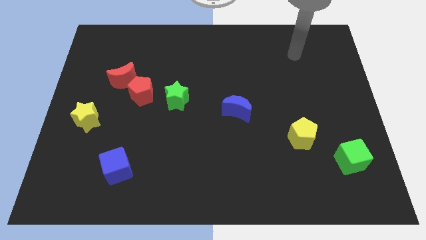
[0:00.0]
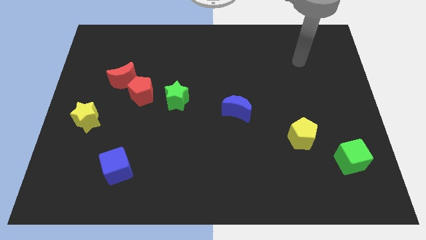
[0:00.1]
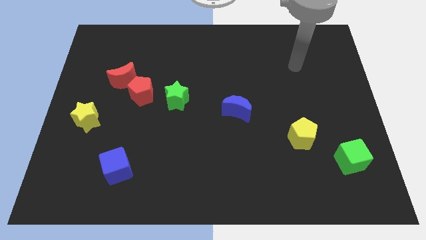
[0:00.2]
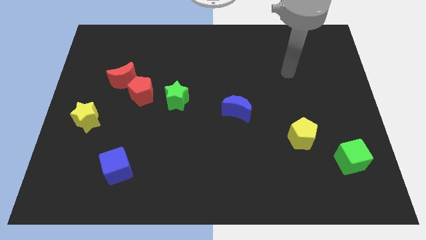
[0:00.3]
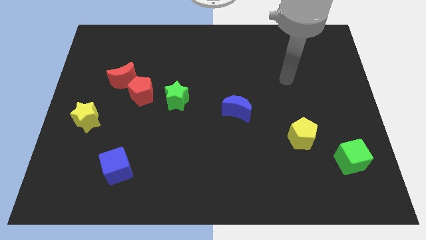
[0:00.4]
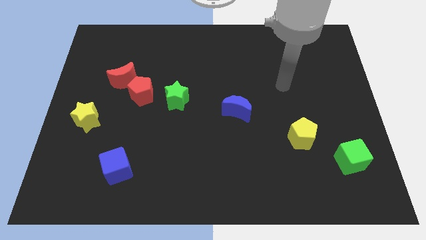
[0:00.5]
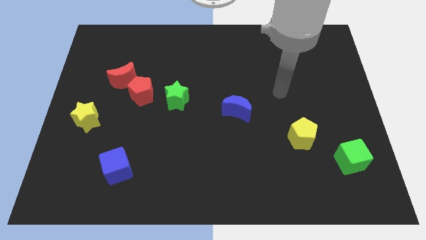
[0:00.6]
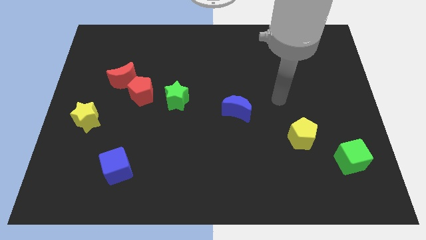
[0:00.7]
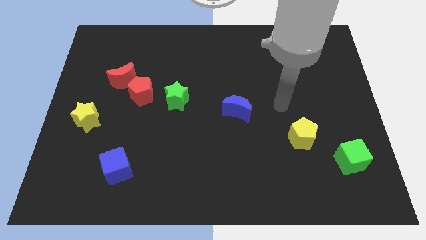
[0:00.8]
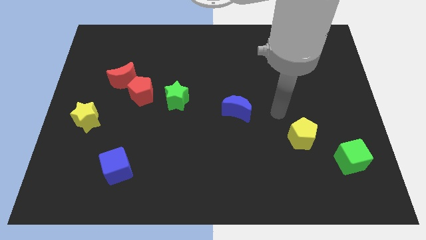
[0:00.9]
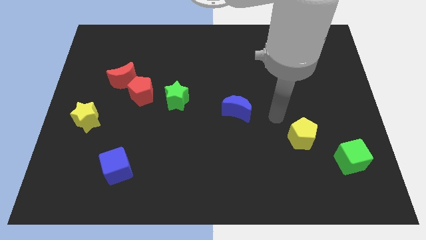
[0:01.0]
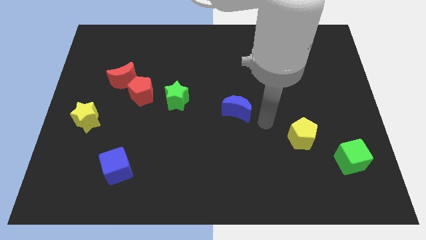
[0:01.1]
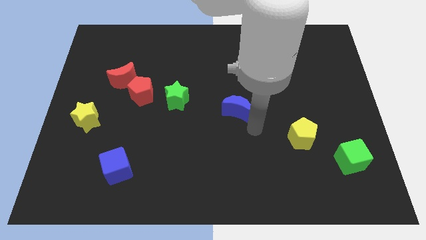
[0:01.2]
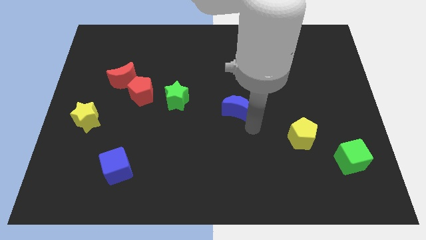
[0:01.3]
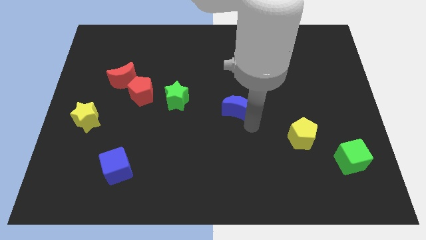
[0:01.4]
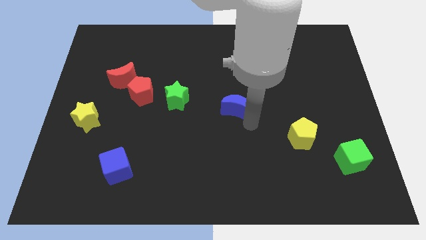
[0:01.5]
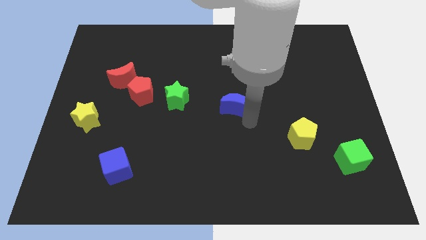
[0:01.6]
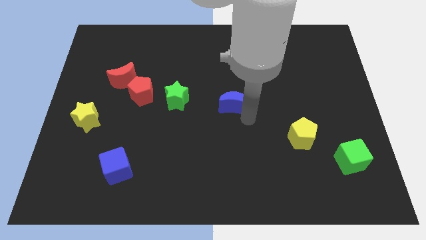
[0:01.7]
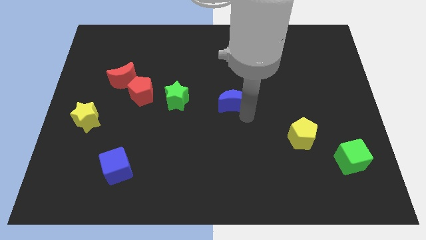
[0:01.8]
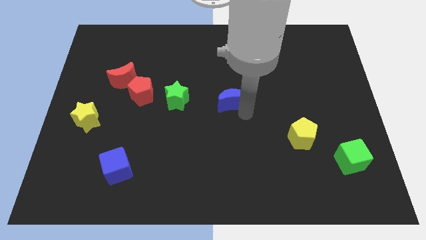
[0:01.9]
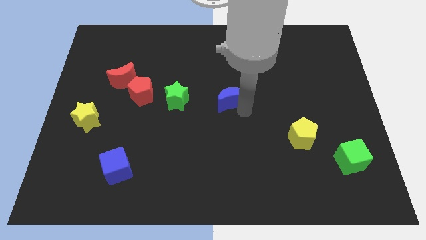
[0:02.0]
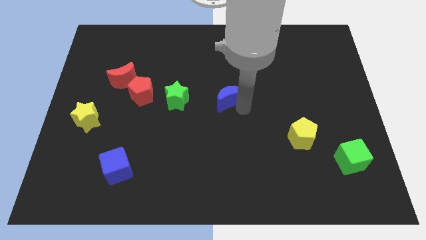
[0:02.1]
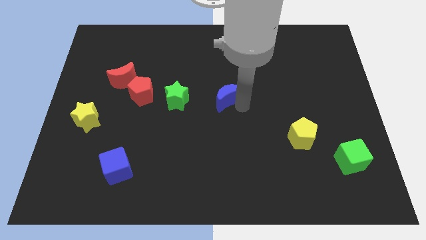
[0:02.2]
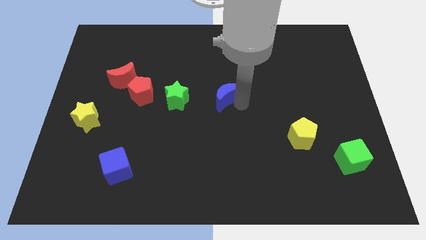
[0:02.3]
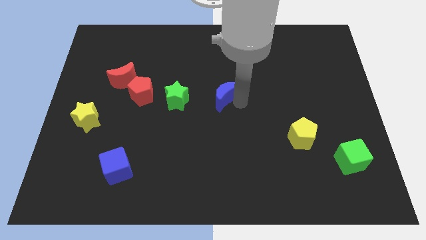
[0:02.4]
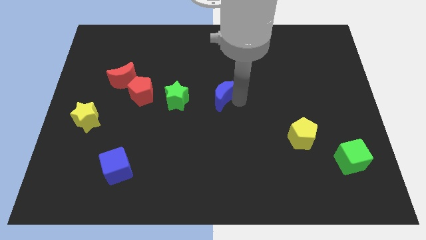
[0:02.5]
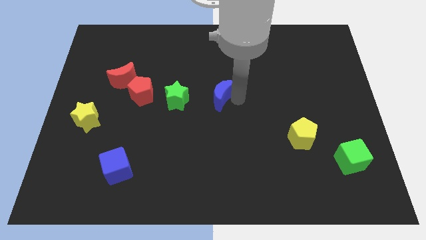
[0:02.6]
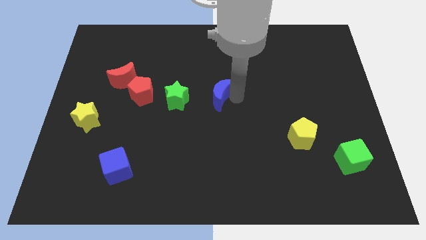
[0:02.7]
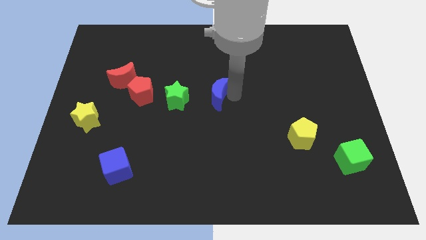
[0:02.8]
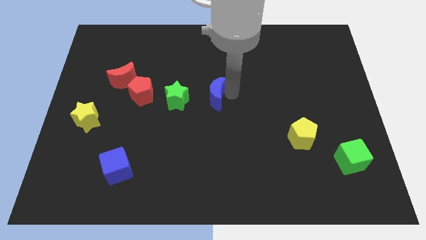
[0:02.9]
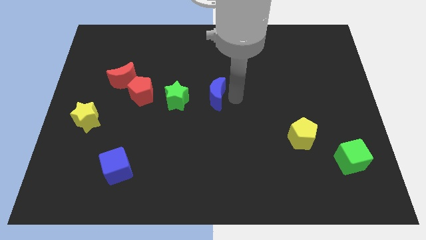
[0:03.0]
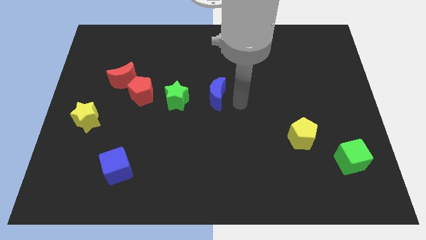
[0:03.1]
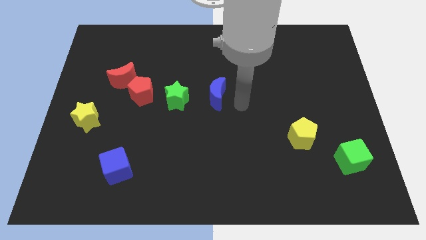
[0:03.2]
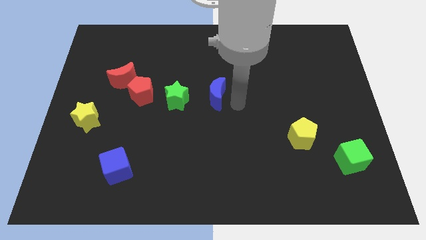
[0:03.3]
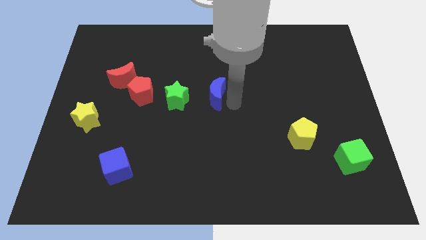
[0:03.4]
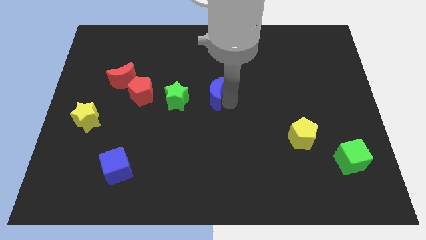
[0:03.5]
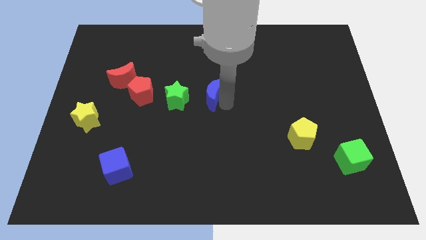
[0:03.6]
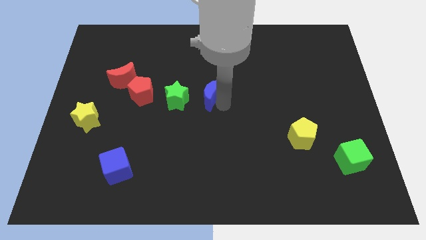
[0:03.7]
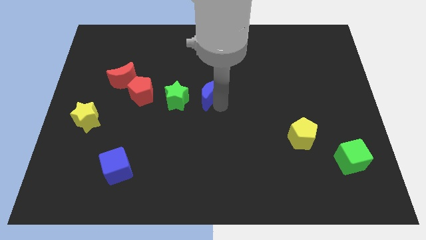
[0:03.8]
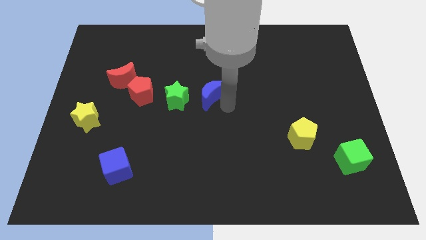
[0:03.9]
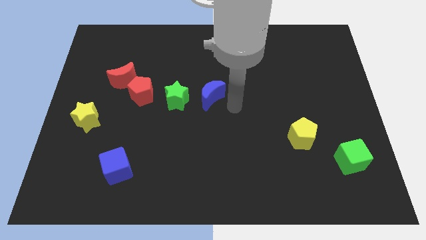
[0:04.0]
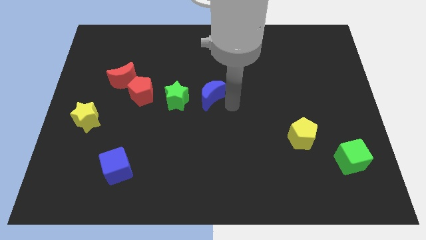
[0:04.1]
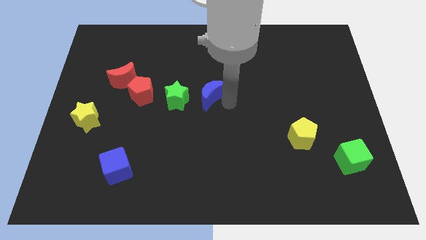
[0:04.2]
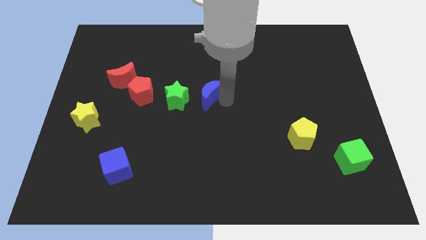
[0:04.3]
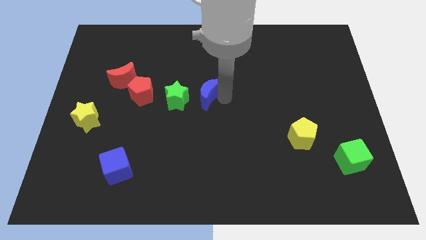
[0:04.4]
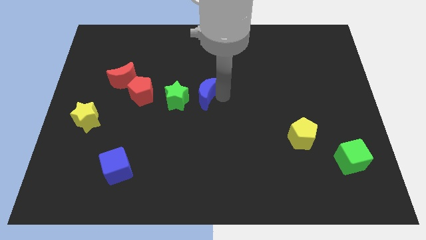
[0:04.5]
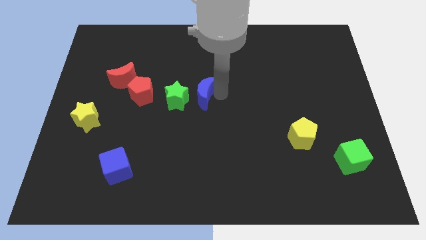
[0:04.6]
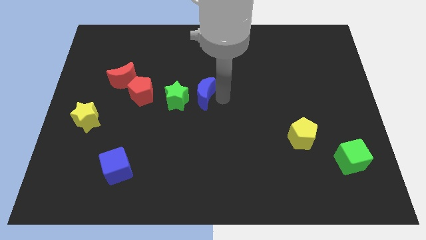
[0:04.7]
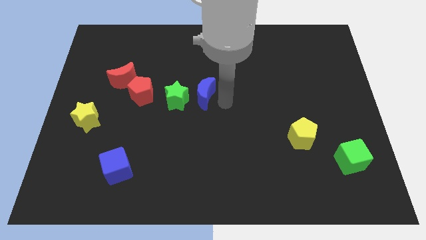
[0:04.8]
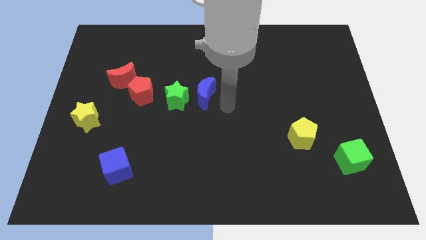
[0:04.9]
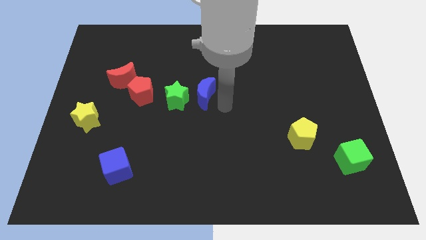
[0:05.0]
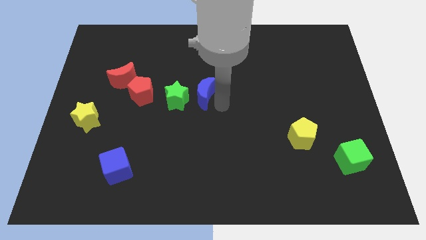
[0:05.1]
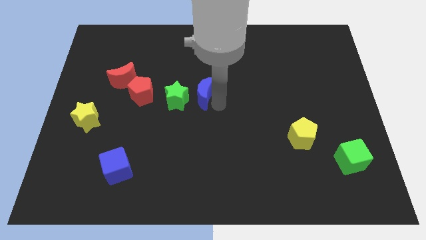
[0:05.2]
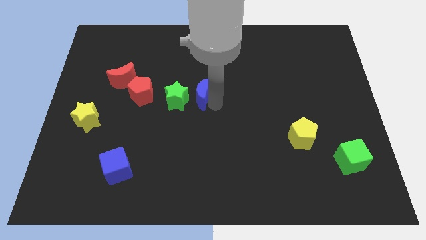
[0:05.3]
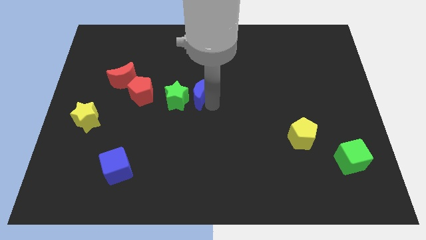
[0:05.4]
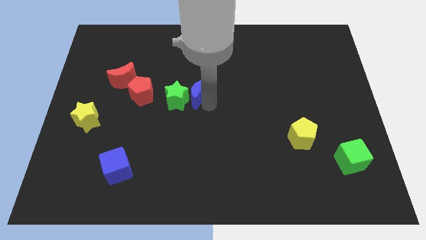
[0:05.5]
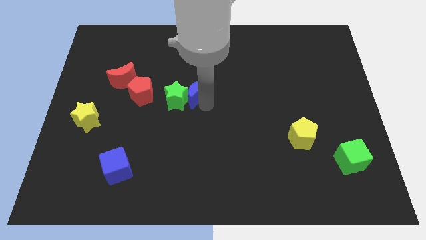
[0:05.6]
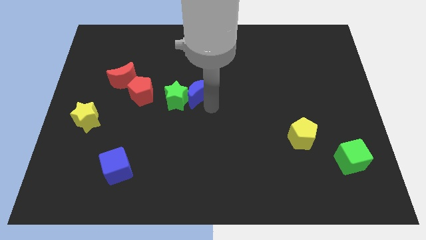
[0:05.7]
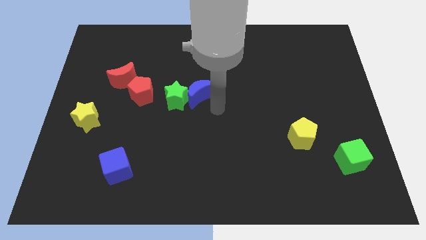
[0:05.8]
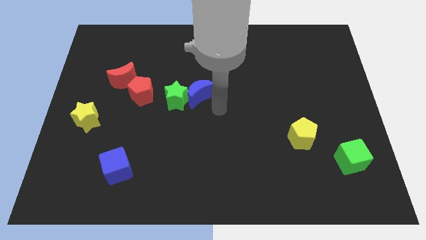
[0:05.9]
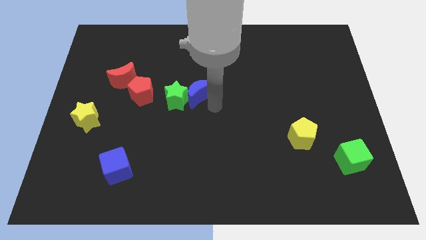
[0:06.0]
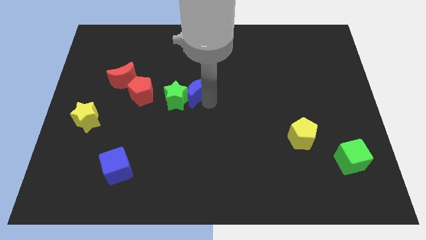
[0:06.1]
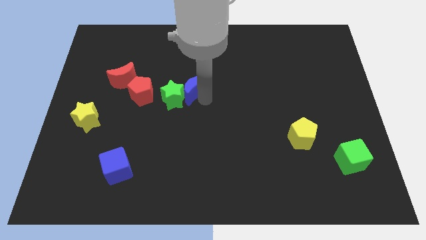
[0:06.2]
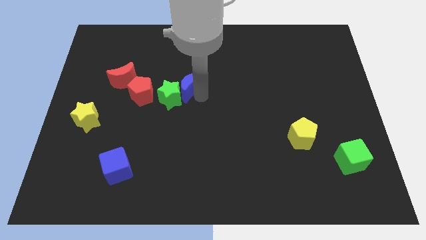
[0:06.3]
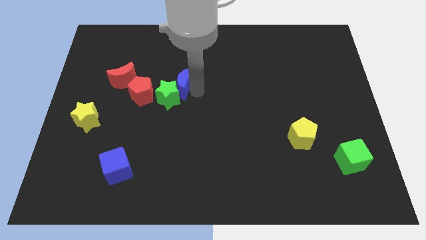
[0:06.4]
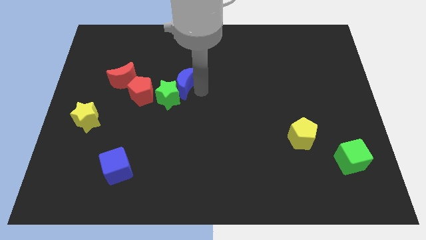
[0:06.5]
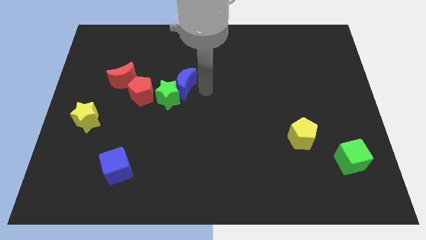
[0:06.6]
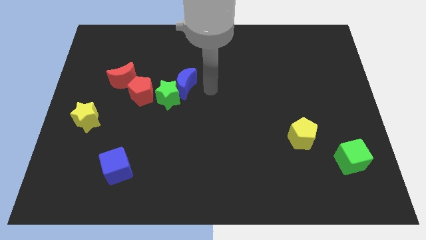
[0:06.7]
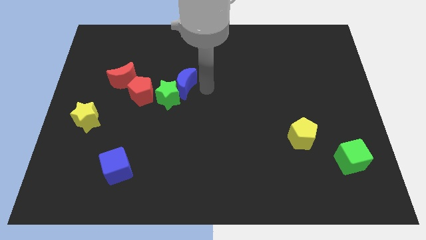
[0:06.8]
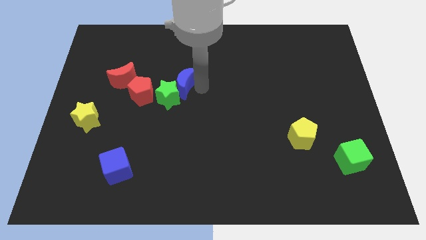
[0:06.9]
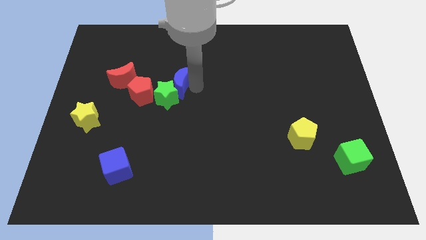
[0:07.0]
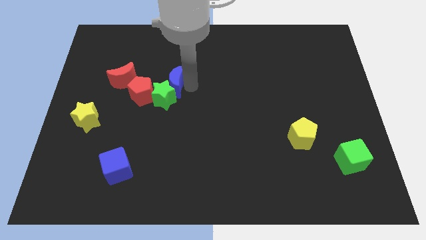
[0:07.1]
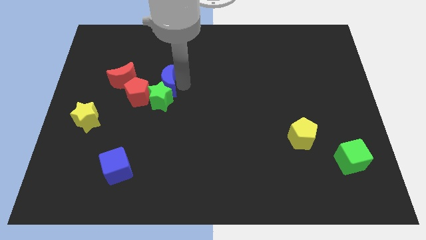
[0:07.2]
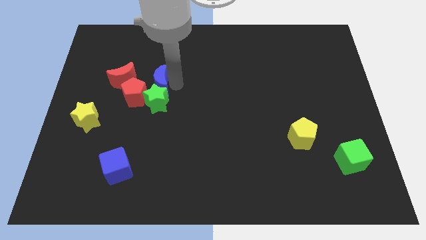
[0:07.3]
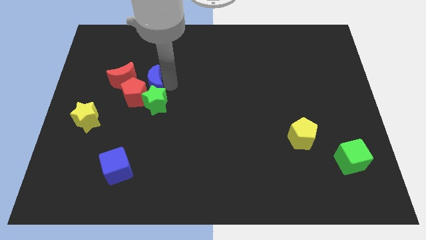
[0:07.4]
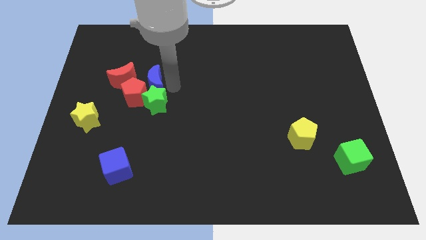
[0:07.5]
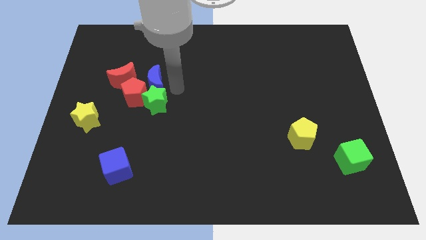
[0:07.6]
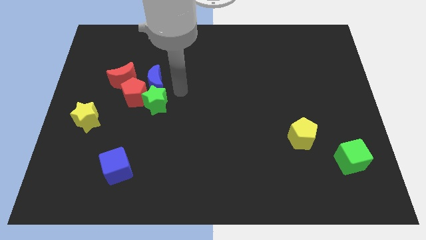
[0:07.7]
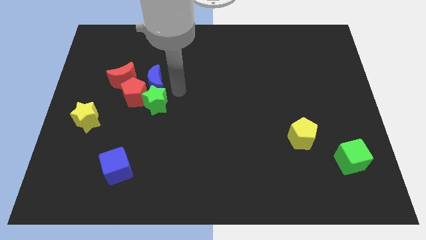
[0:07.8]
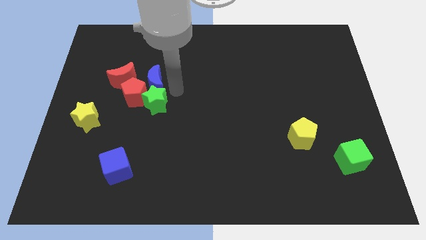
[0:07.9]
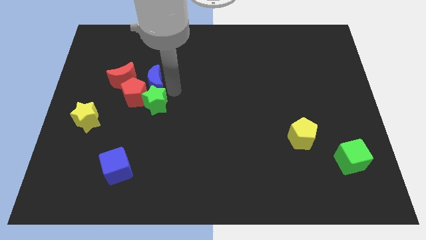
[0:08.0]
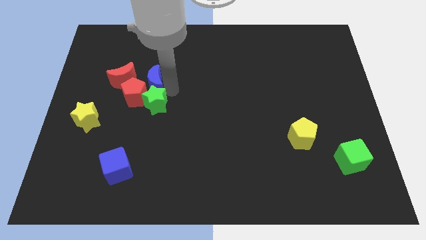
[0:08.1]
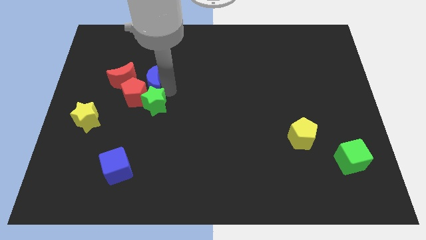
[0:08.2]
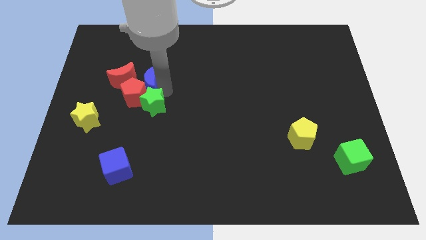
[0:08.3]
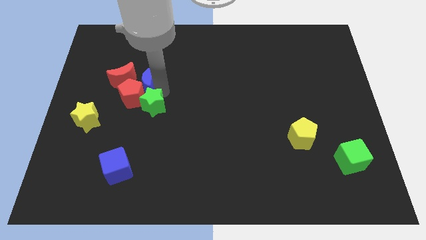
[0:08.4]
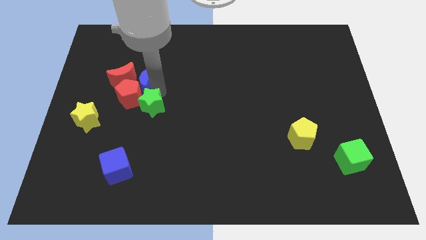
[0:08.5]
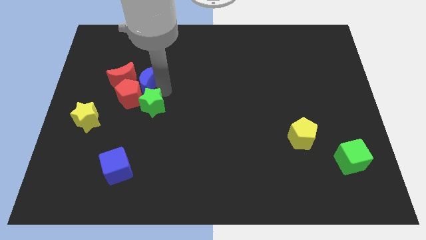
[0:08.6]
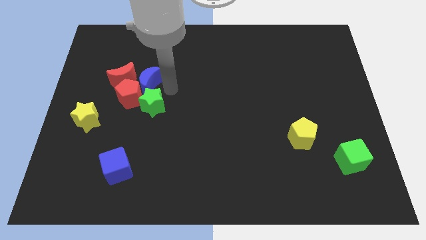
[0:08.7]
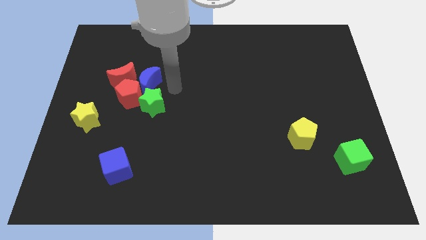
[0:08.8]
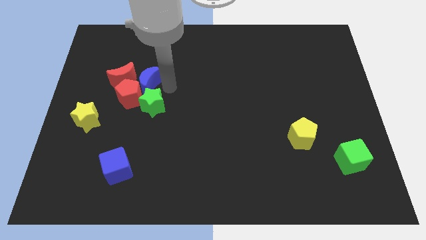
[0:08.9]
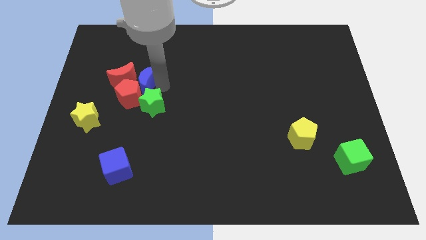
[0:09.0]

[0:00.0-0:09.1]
move the blue moon to the red moon
